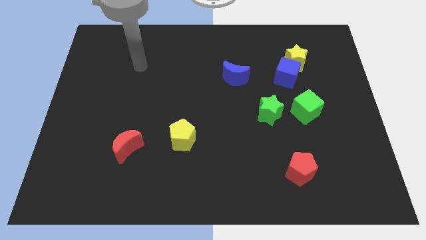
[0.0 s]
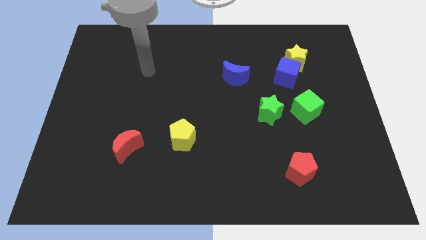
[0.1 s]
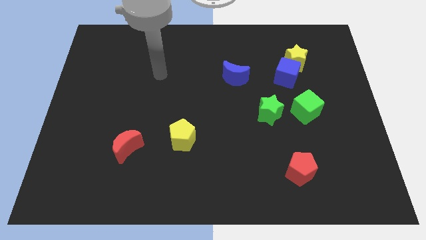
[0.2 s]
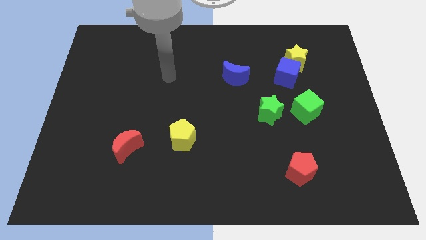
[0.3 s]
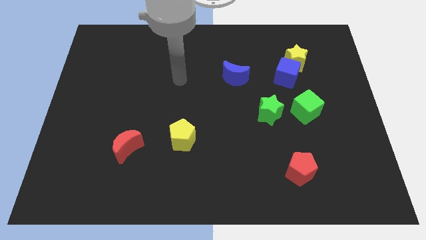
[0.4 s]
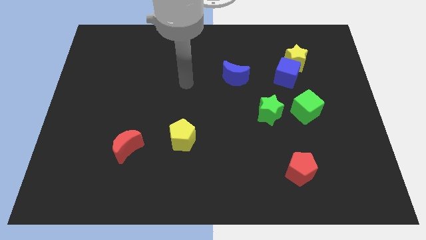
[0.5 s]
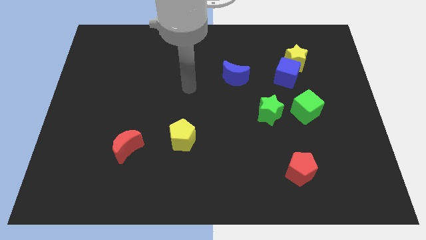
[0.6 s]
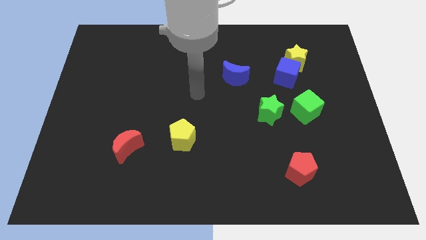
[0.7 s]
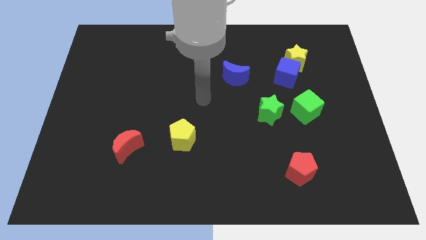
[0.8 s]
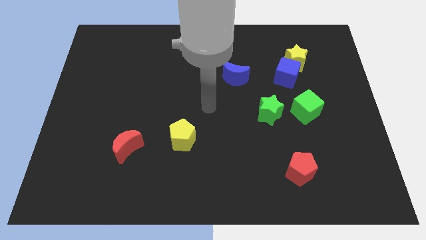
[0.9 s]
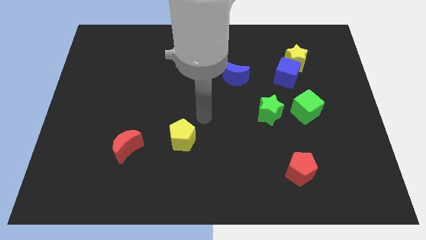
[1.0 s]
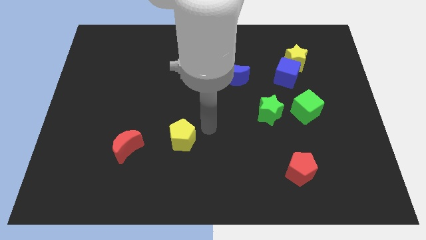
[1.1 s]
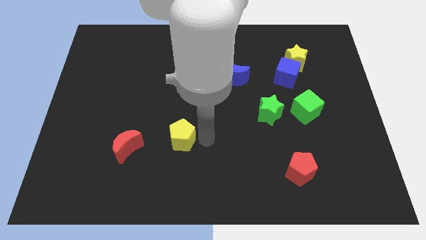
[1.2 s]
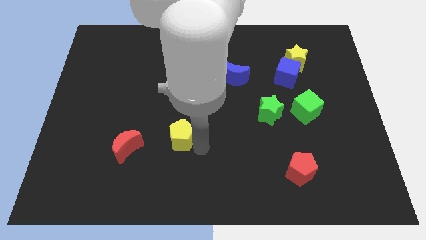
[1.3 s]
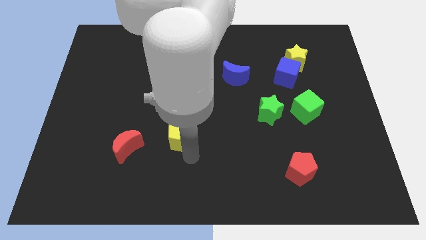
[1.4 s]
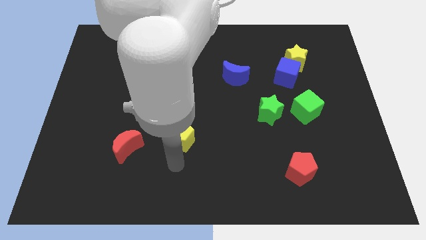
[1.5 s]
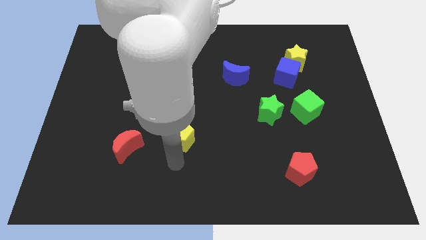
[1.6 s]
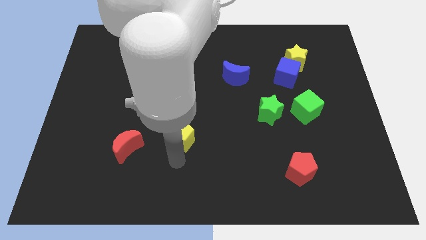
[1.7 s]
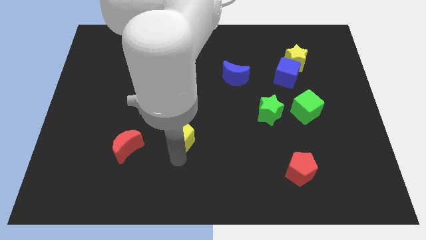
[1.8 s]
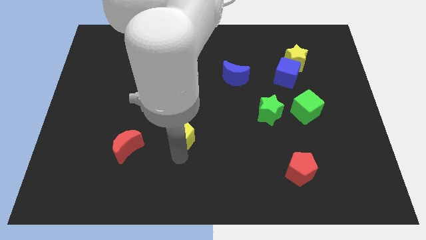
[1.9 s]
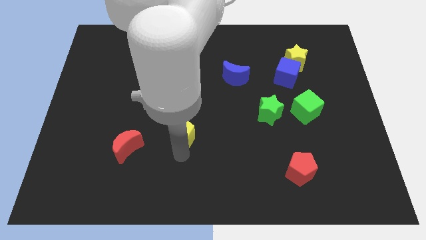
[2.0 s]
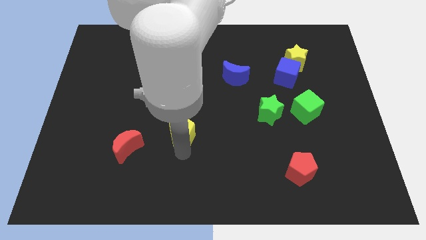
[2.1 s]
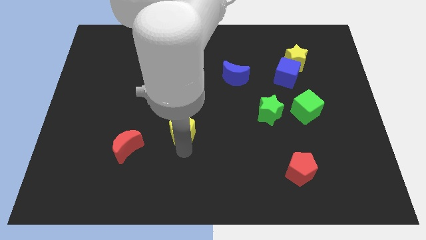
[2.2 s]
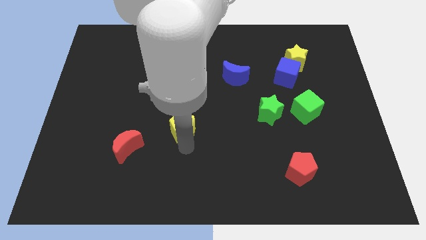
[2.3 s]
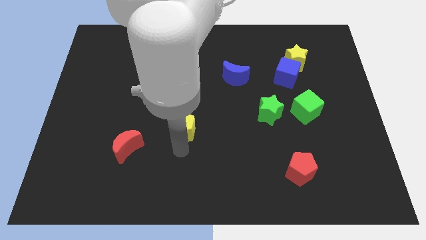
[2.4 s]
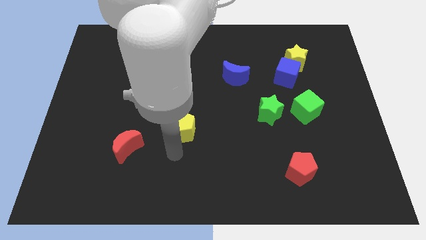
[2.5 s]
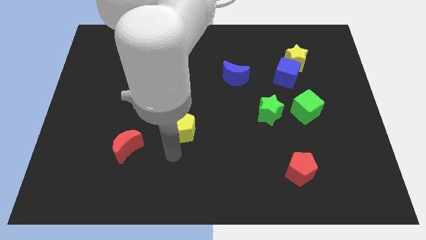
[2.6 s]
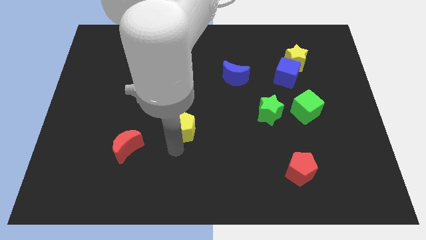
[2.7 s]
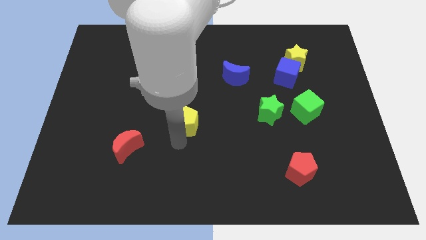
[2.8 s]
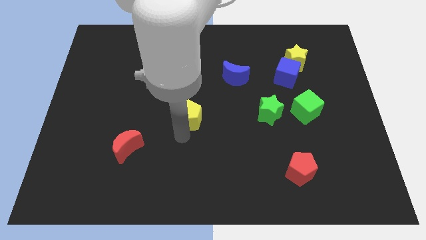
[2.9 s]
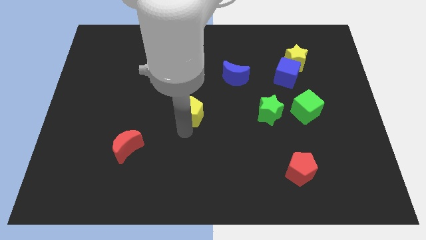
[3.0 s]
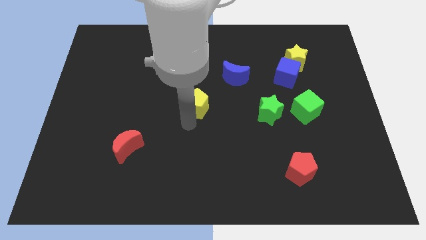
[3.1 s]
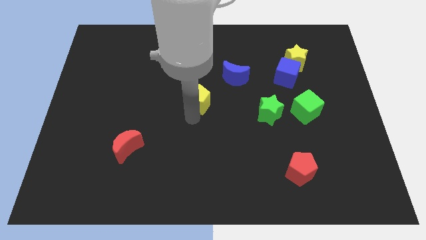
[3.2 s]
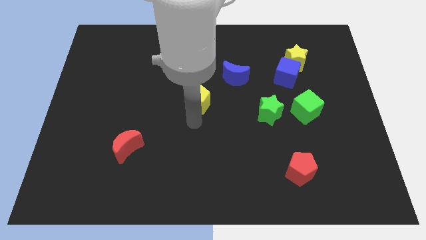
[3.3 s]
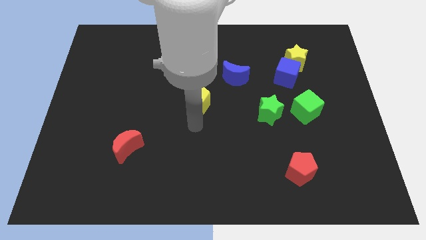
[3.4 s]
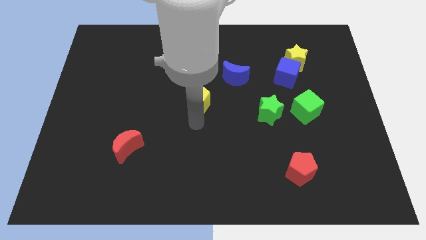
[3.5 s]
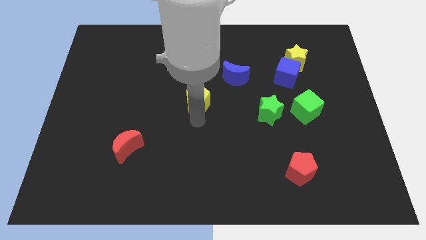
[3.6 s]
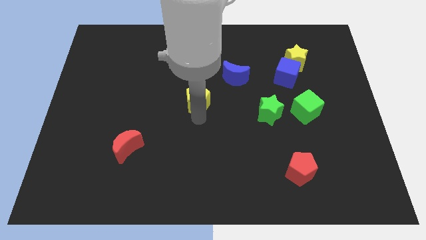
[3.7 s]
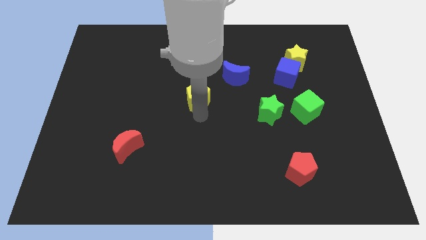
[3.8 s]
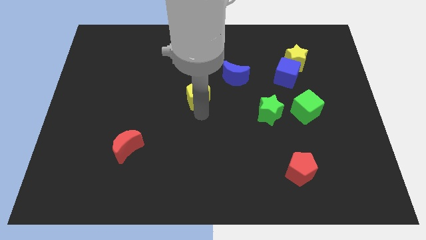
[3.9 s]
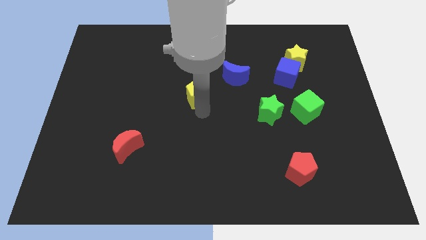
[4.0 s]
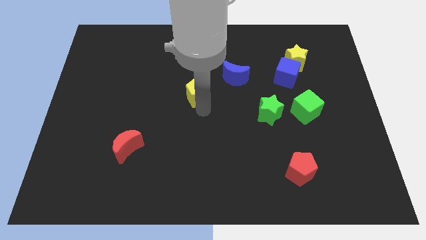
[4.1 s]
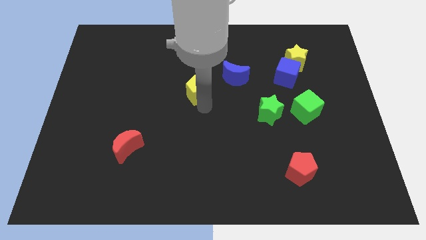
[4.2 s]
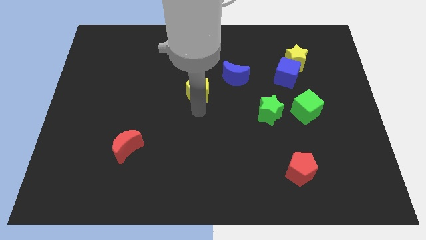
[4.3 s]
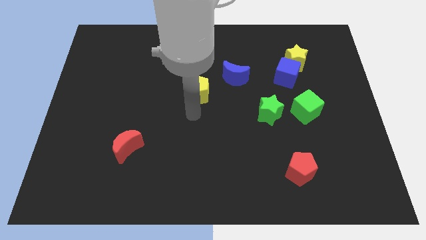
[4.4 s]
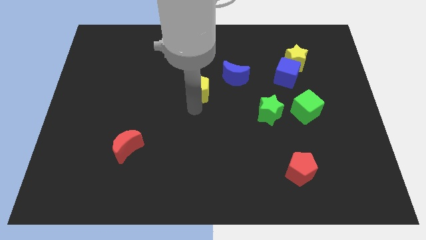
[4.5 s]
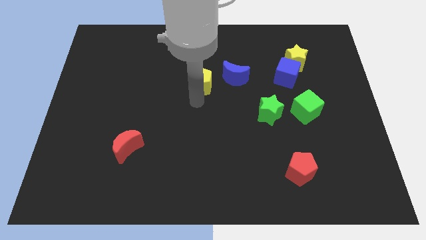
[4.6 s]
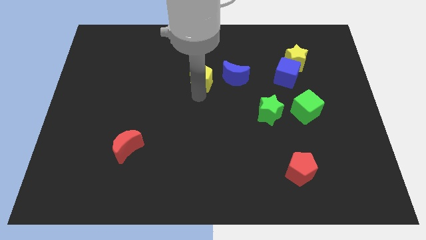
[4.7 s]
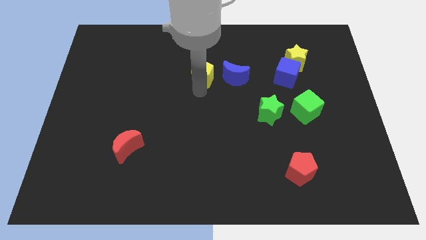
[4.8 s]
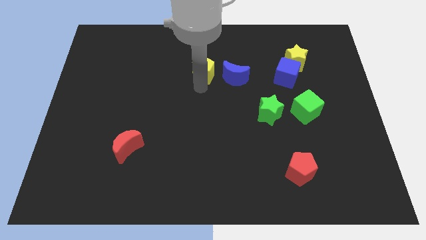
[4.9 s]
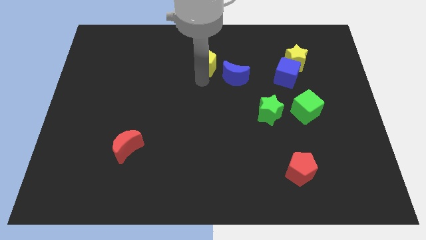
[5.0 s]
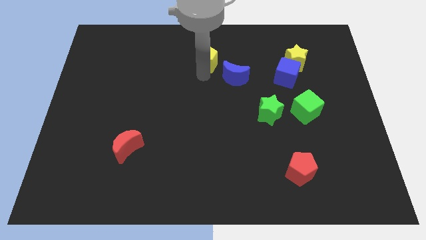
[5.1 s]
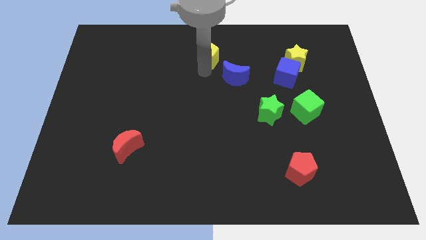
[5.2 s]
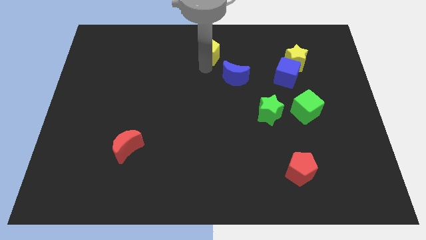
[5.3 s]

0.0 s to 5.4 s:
put the yellow pentagon to the towards your base
